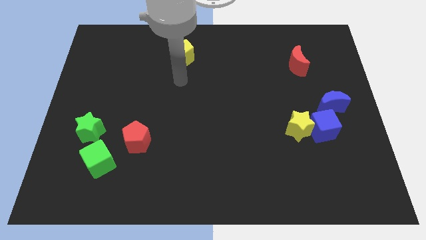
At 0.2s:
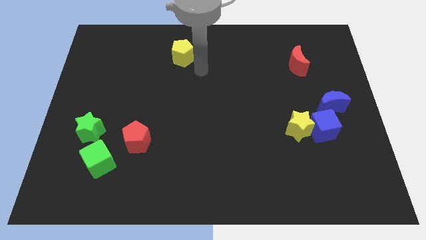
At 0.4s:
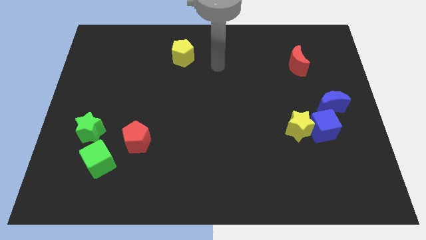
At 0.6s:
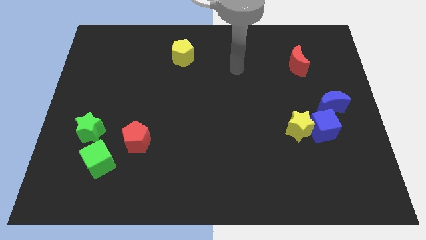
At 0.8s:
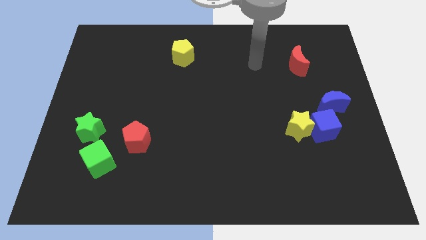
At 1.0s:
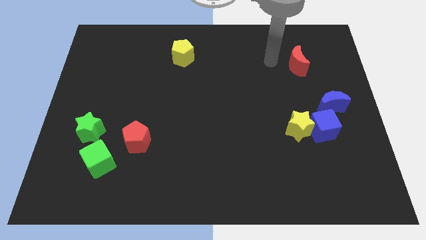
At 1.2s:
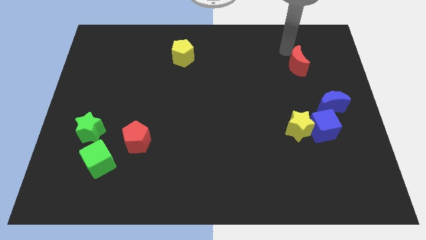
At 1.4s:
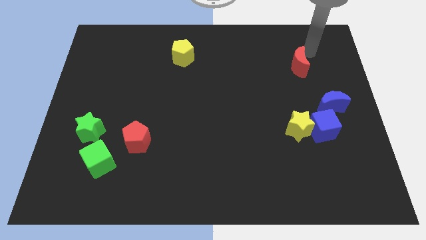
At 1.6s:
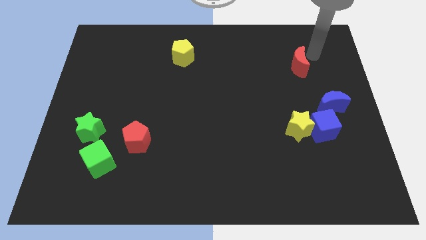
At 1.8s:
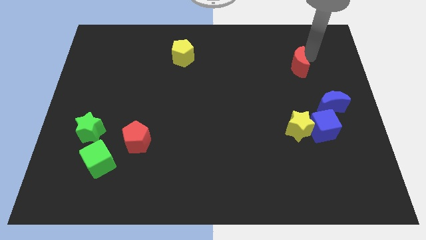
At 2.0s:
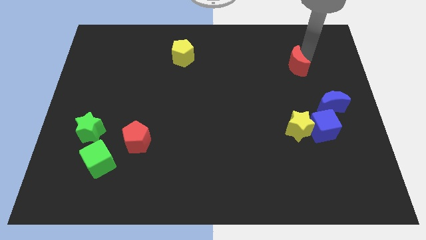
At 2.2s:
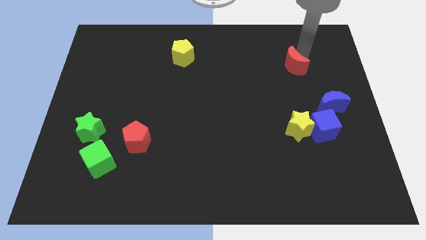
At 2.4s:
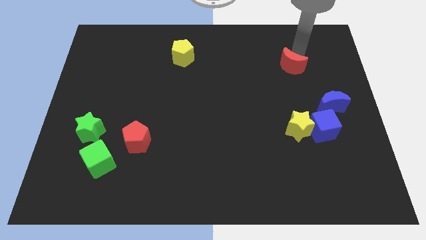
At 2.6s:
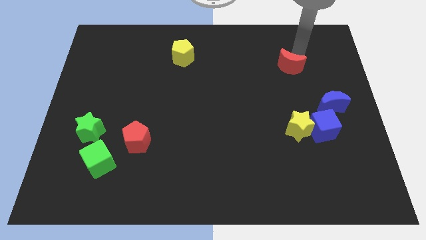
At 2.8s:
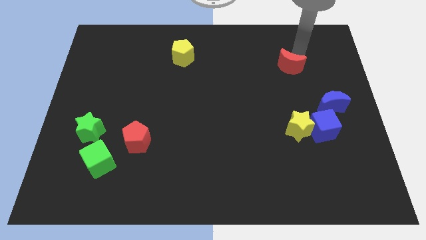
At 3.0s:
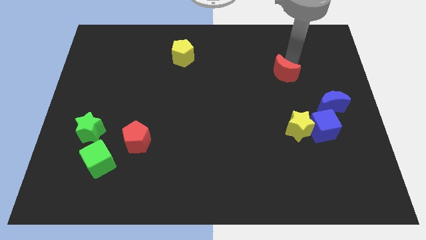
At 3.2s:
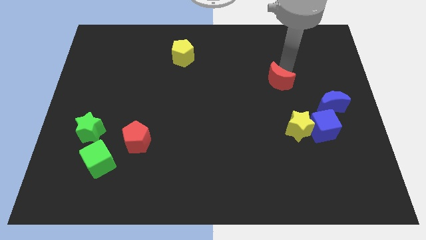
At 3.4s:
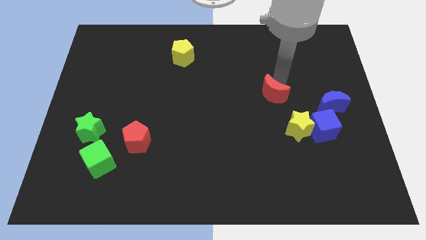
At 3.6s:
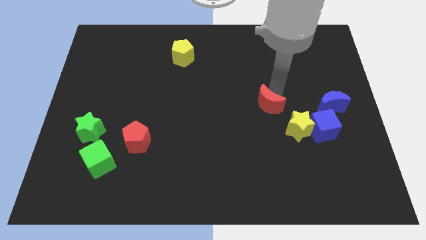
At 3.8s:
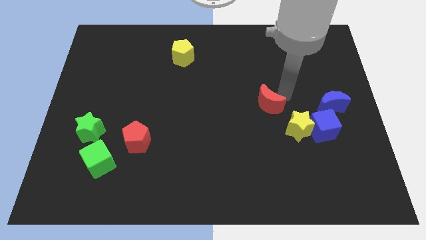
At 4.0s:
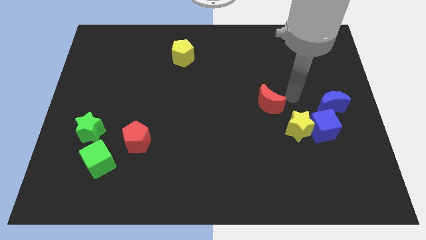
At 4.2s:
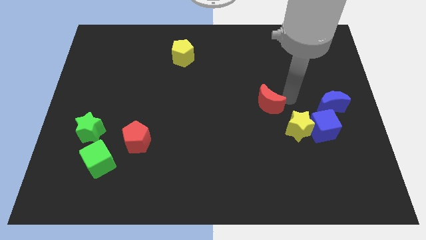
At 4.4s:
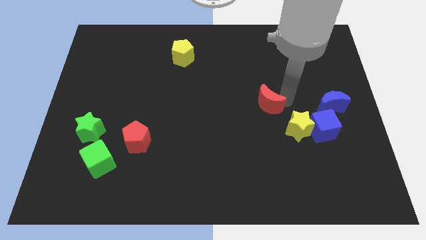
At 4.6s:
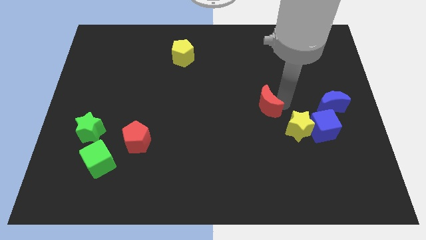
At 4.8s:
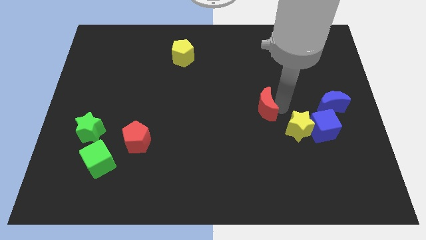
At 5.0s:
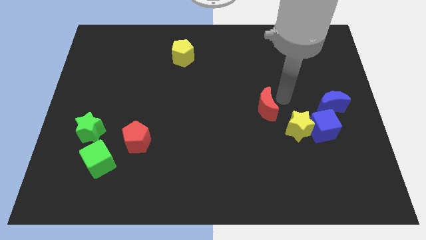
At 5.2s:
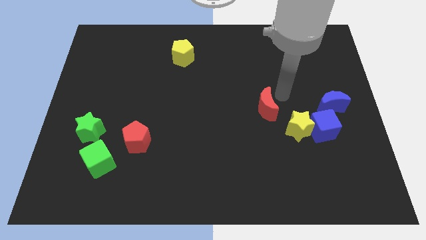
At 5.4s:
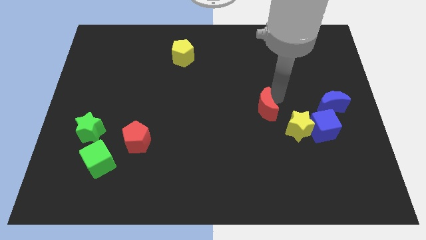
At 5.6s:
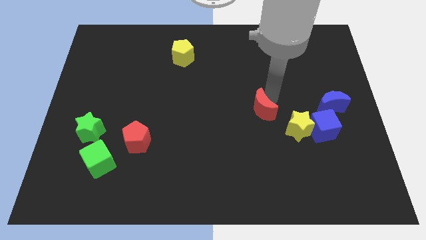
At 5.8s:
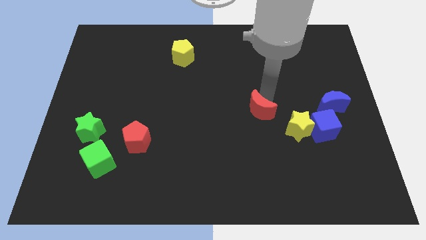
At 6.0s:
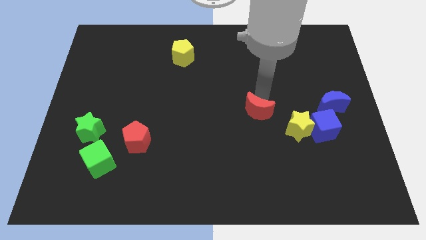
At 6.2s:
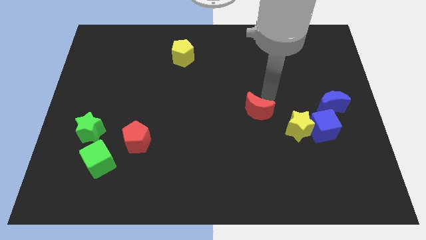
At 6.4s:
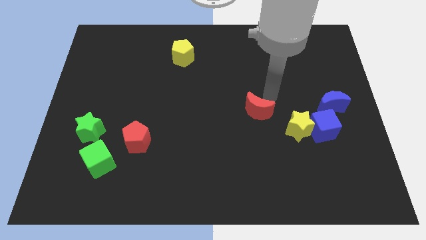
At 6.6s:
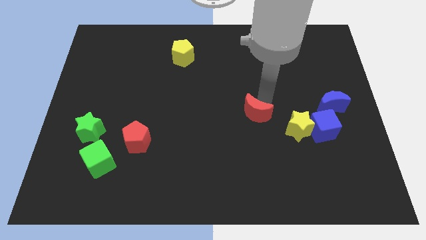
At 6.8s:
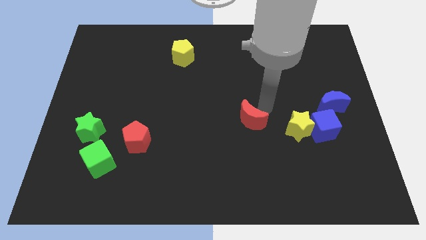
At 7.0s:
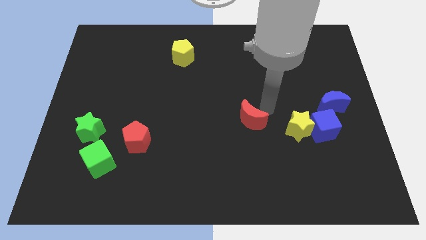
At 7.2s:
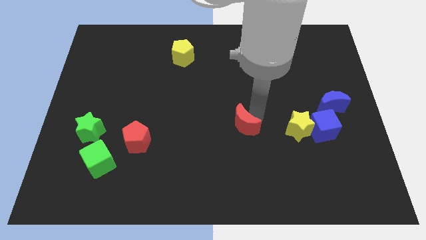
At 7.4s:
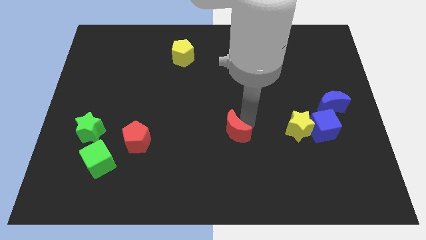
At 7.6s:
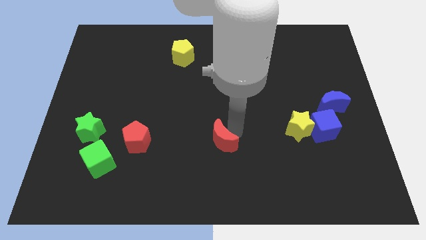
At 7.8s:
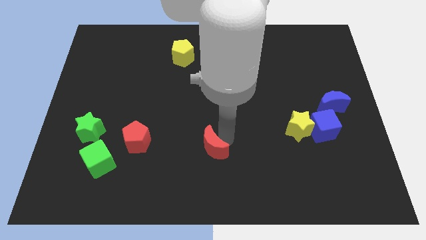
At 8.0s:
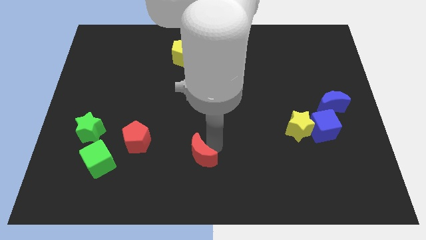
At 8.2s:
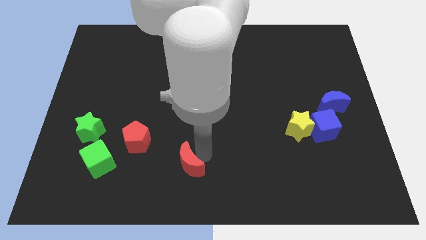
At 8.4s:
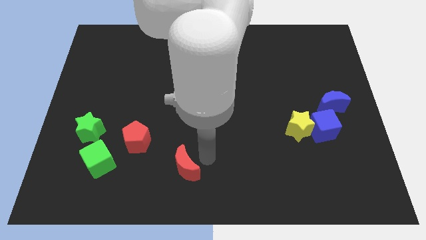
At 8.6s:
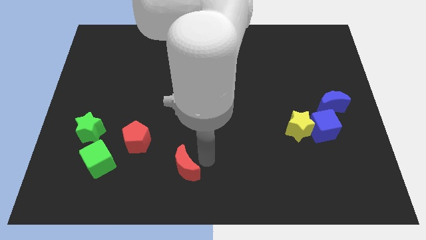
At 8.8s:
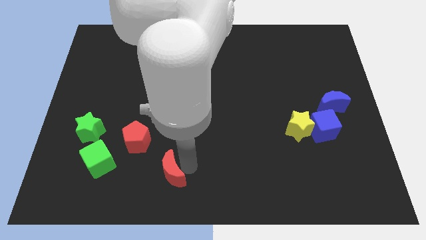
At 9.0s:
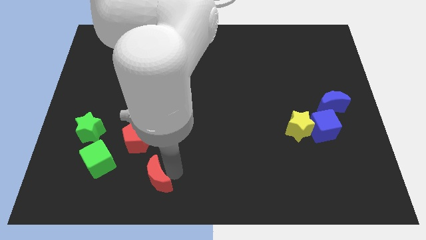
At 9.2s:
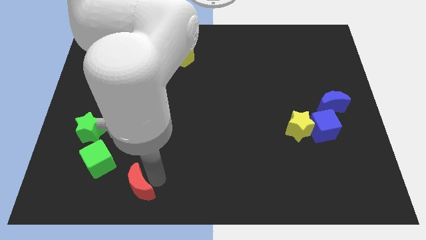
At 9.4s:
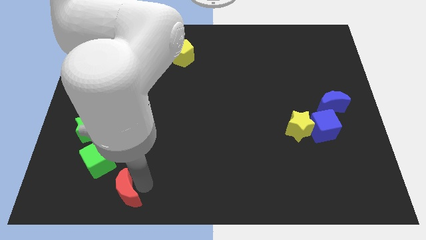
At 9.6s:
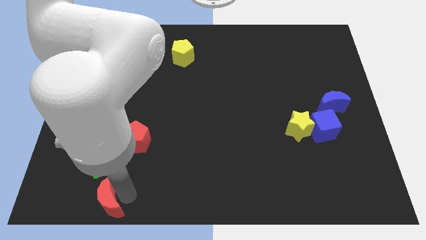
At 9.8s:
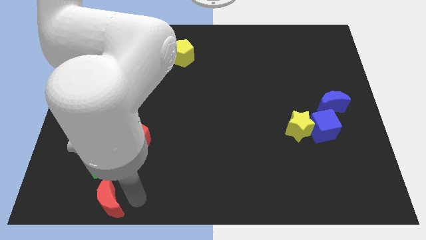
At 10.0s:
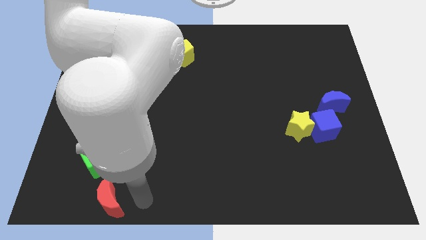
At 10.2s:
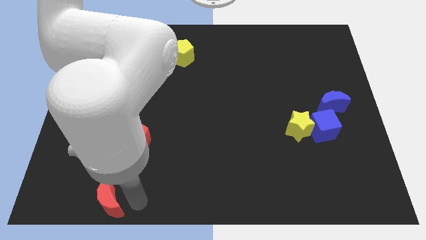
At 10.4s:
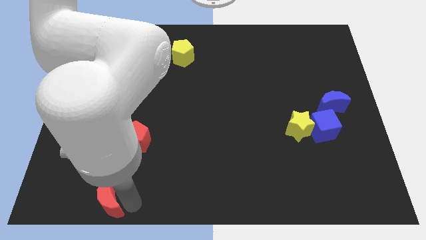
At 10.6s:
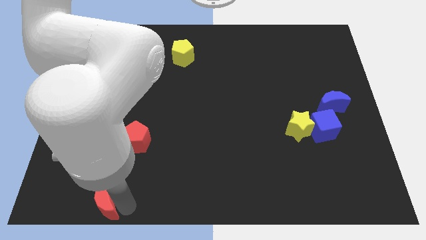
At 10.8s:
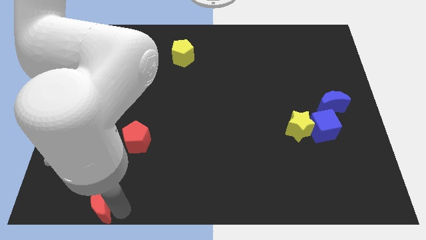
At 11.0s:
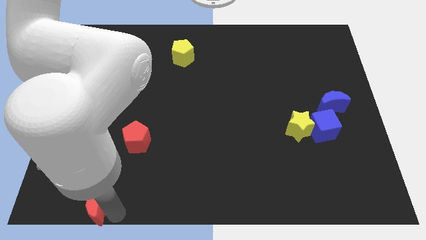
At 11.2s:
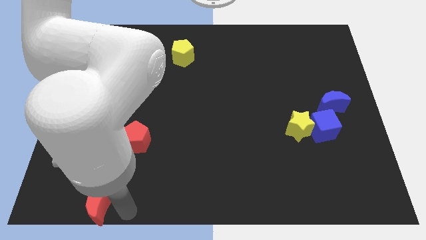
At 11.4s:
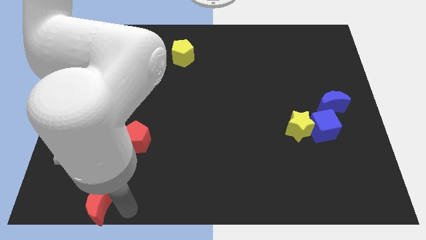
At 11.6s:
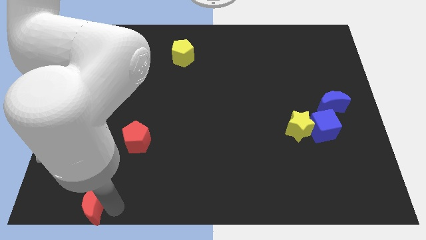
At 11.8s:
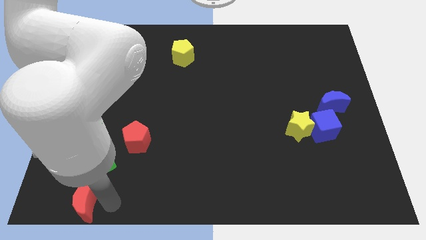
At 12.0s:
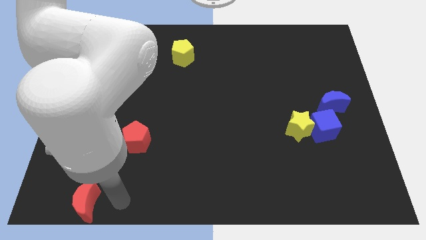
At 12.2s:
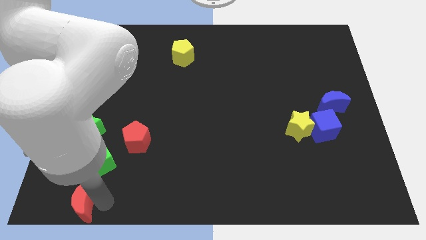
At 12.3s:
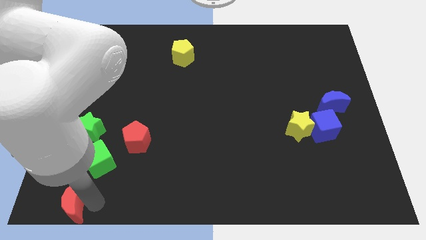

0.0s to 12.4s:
push the red moon to the bottom left
